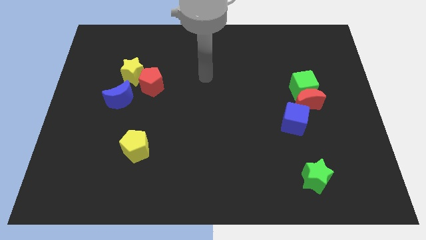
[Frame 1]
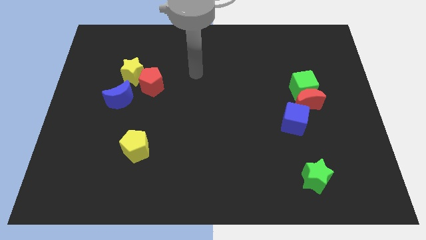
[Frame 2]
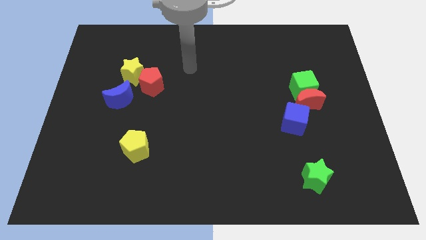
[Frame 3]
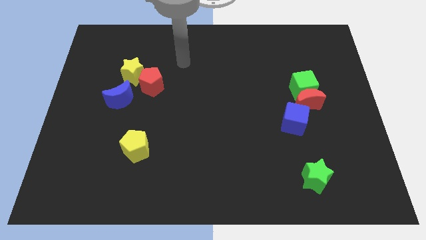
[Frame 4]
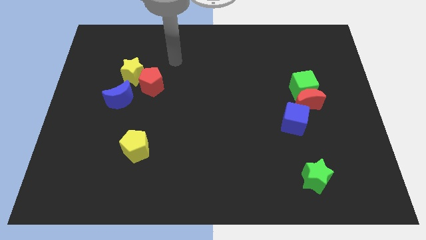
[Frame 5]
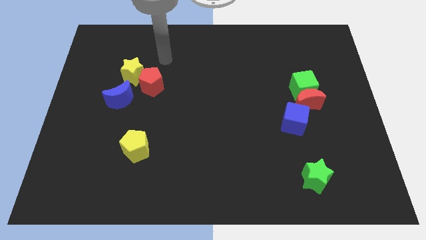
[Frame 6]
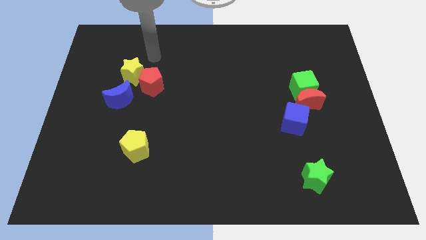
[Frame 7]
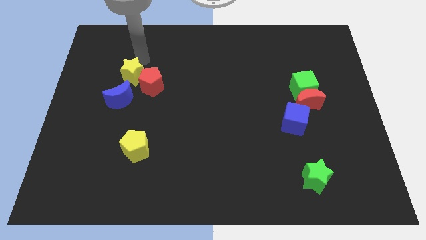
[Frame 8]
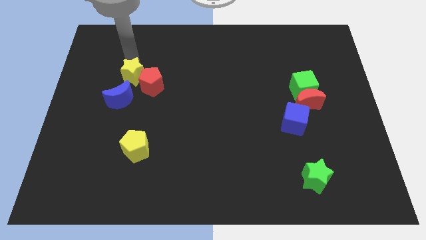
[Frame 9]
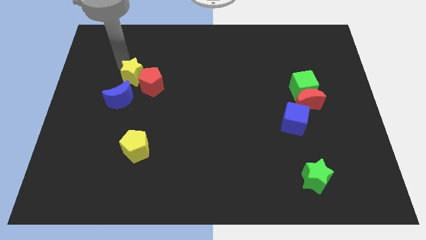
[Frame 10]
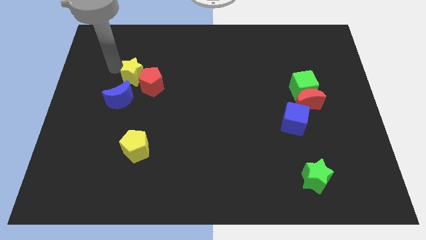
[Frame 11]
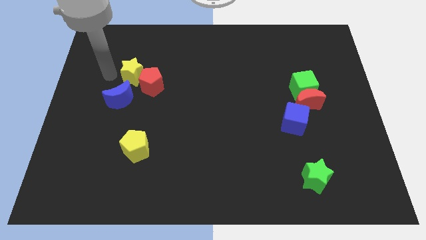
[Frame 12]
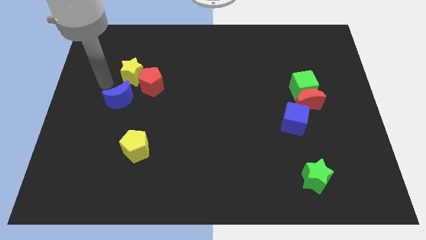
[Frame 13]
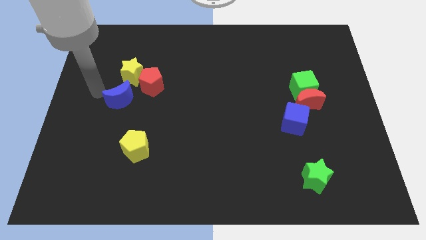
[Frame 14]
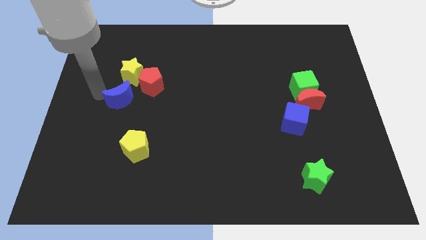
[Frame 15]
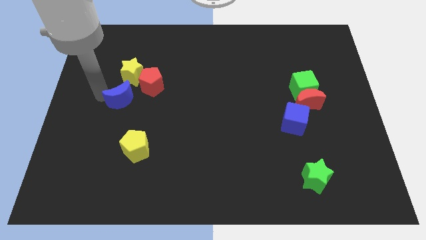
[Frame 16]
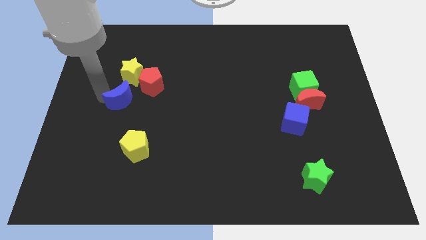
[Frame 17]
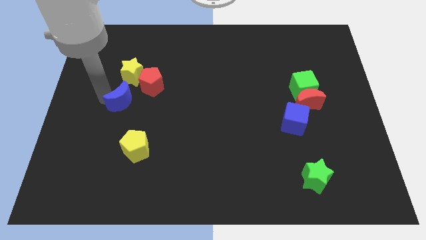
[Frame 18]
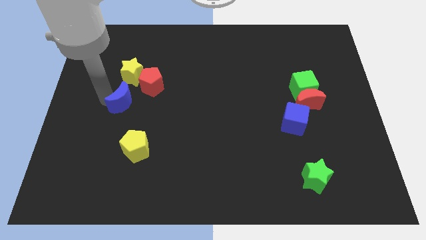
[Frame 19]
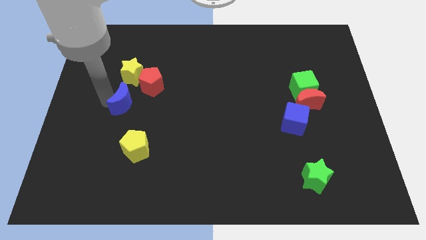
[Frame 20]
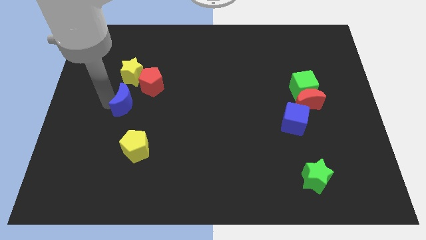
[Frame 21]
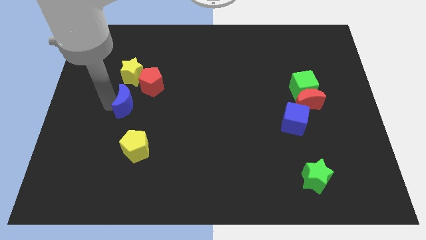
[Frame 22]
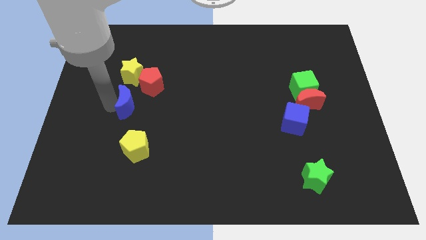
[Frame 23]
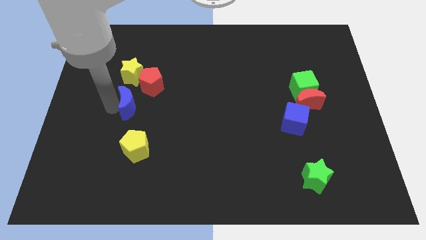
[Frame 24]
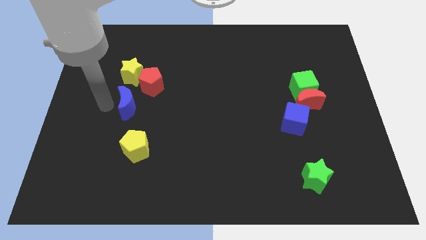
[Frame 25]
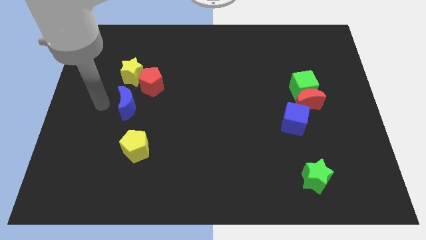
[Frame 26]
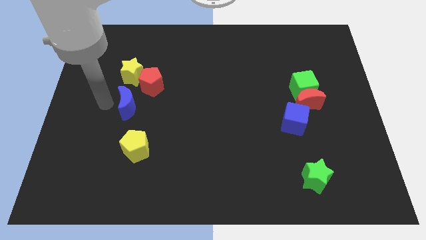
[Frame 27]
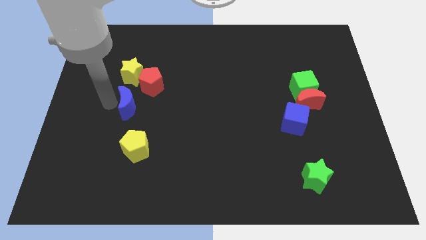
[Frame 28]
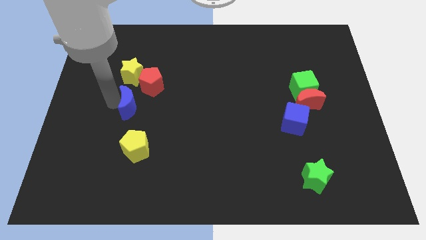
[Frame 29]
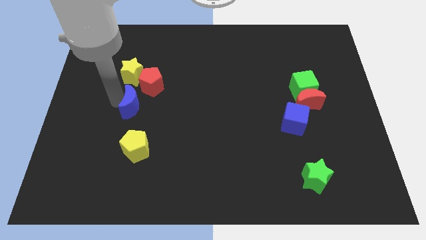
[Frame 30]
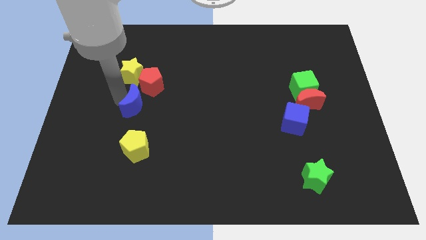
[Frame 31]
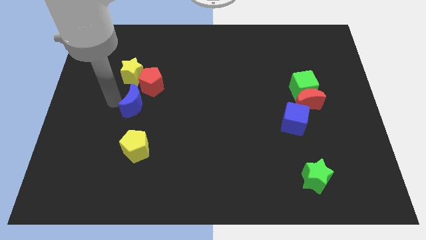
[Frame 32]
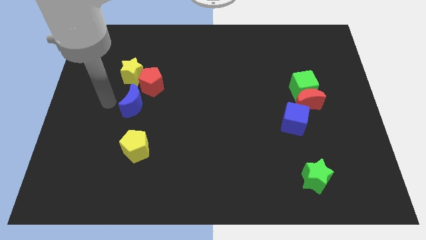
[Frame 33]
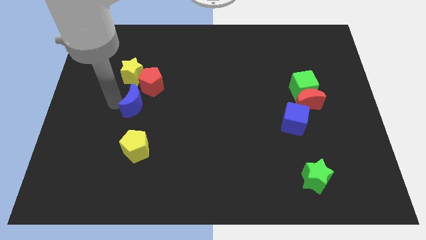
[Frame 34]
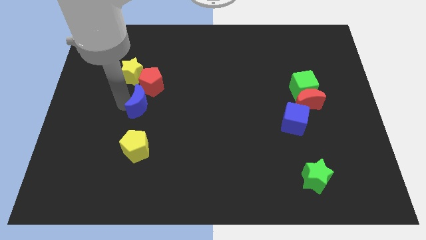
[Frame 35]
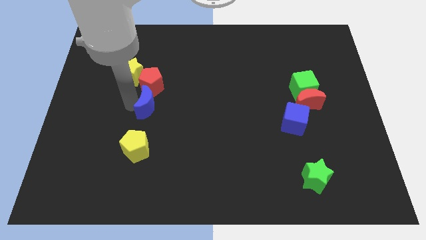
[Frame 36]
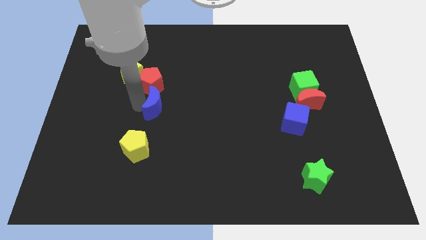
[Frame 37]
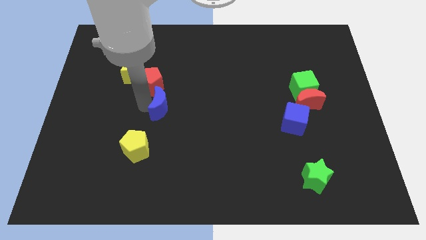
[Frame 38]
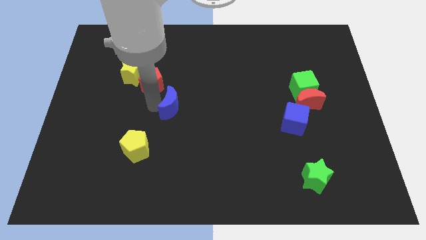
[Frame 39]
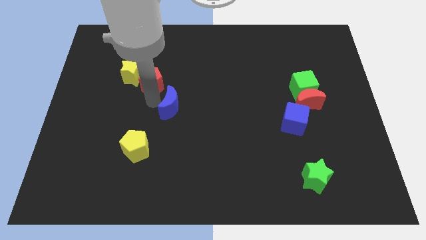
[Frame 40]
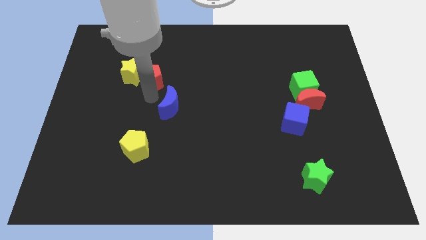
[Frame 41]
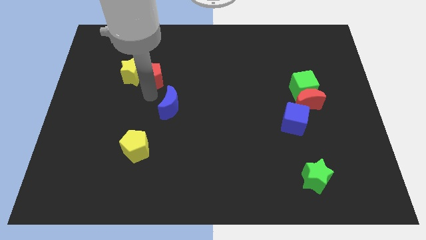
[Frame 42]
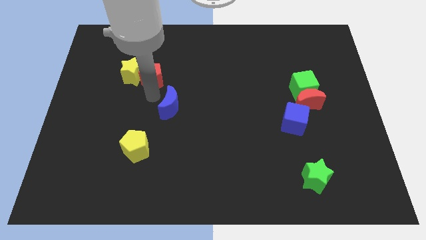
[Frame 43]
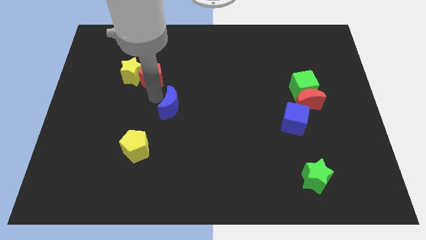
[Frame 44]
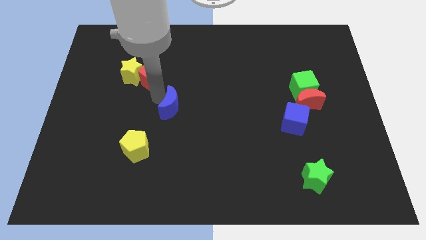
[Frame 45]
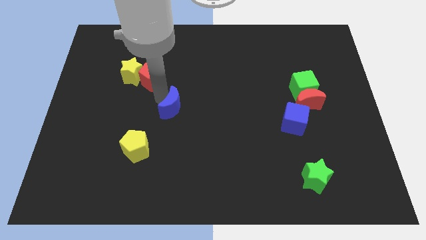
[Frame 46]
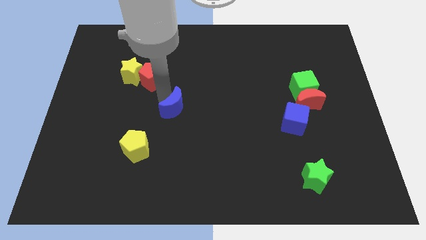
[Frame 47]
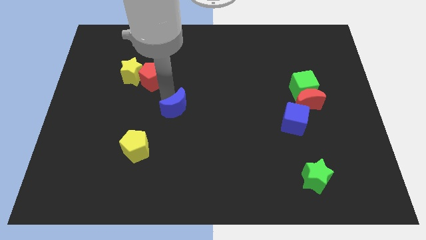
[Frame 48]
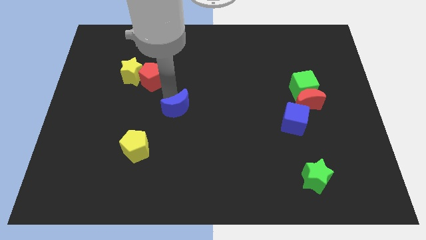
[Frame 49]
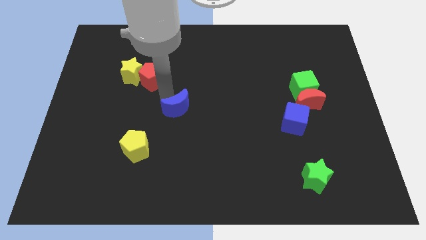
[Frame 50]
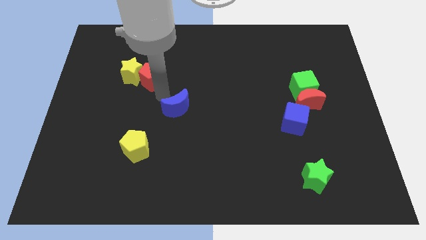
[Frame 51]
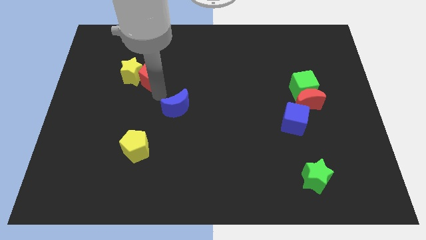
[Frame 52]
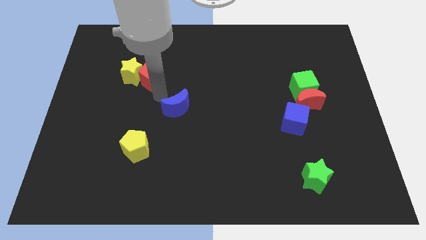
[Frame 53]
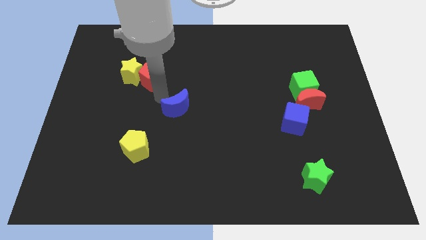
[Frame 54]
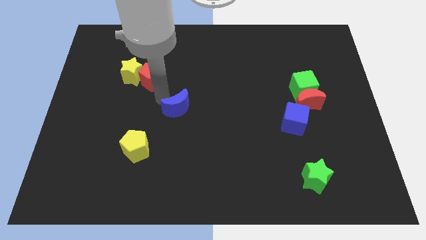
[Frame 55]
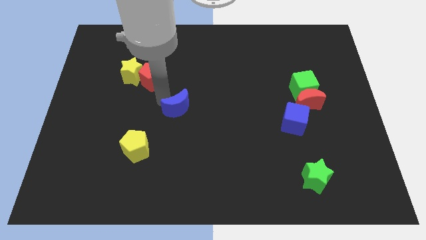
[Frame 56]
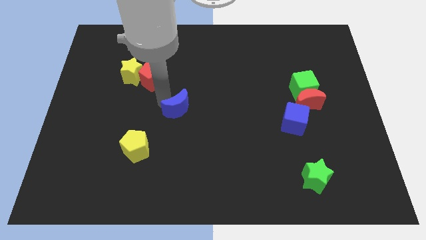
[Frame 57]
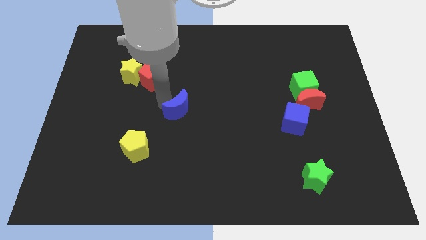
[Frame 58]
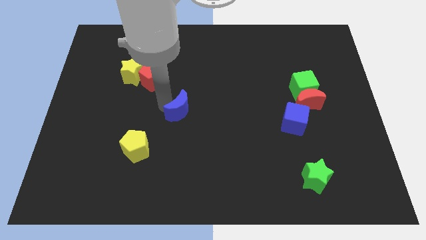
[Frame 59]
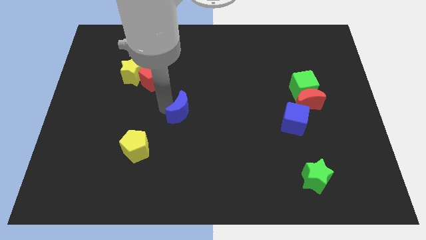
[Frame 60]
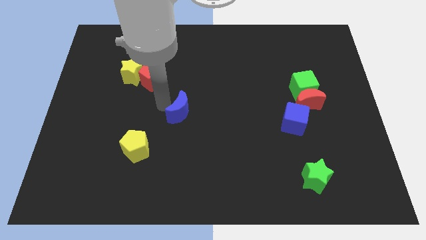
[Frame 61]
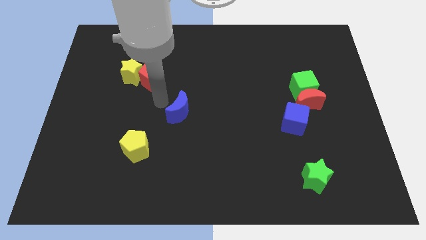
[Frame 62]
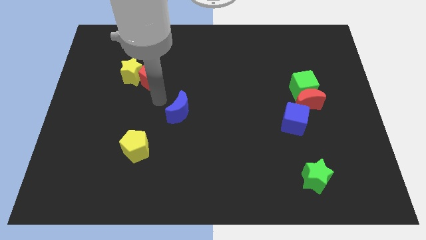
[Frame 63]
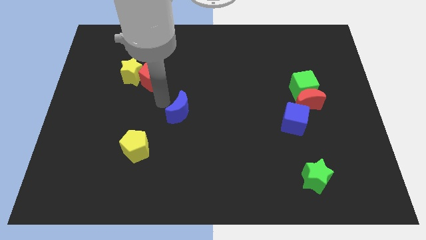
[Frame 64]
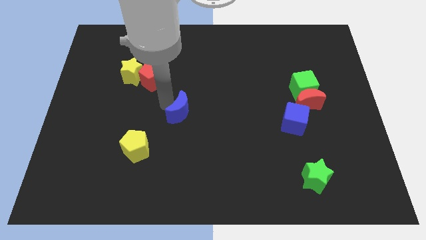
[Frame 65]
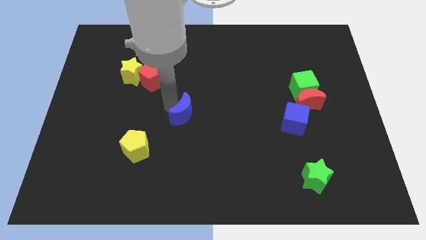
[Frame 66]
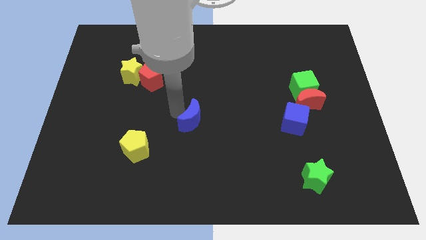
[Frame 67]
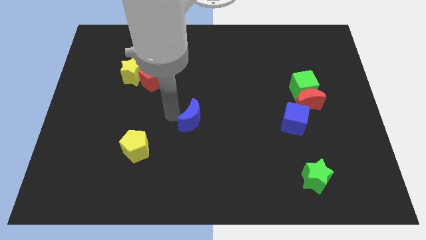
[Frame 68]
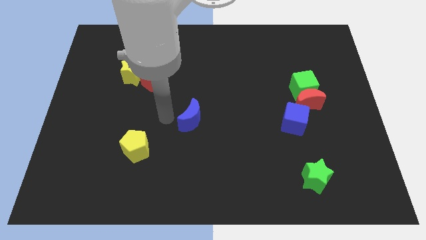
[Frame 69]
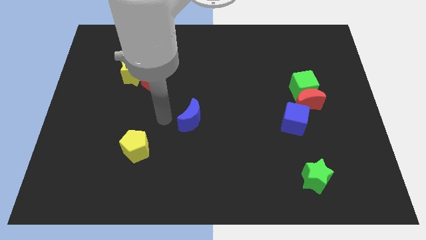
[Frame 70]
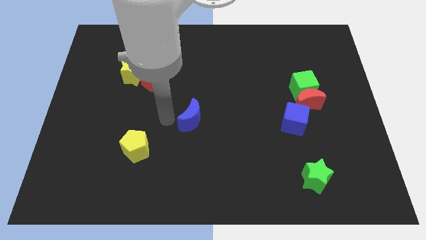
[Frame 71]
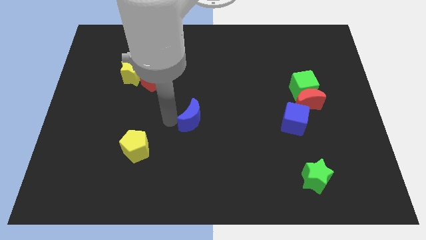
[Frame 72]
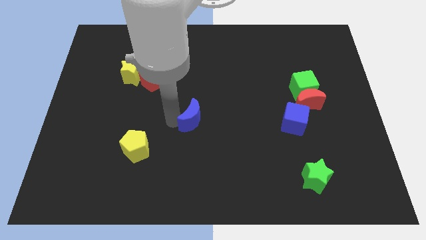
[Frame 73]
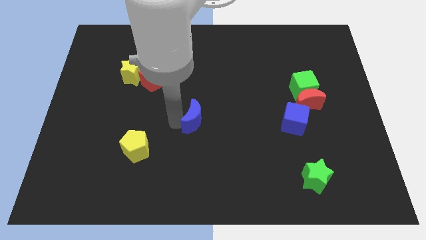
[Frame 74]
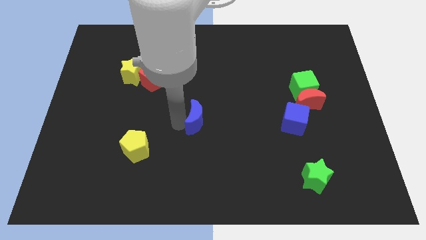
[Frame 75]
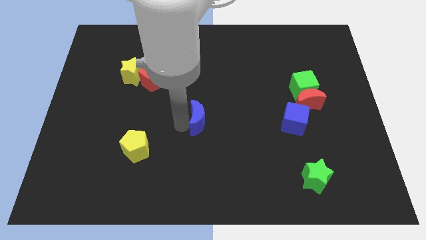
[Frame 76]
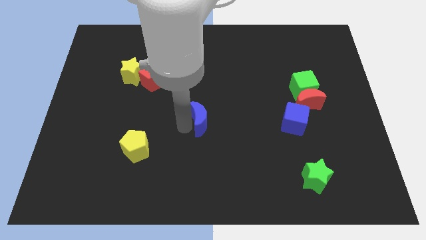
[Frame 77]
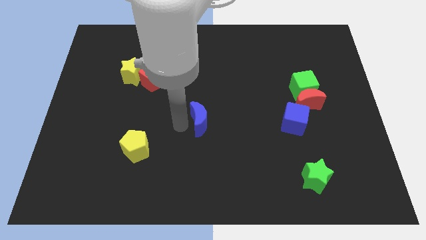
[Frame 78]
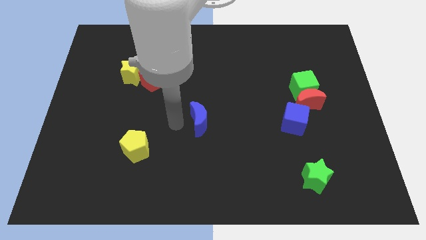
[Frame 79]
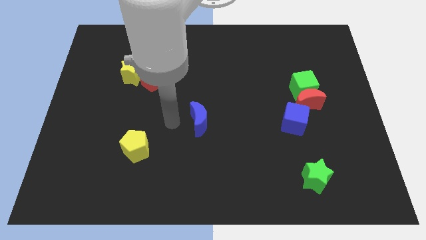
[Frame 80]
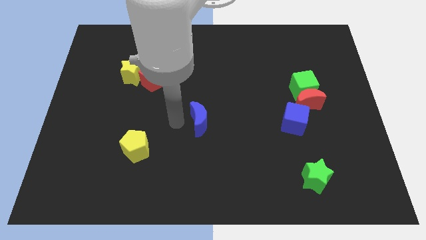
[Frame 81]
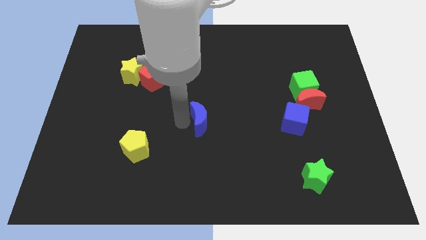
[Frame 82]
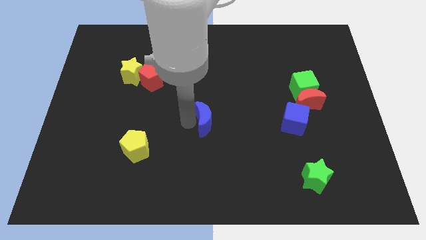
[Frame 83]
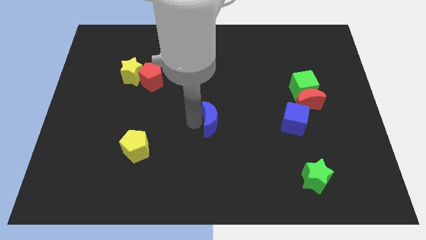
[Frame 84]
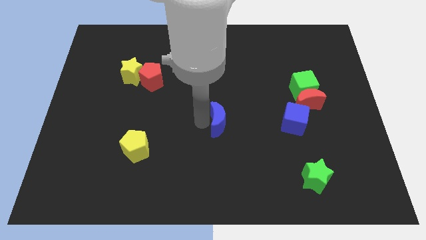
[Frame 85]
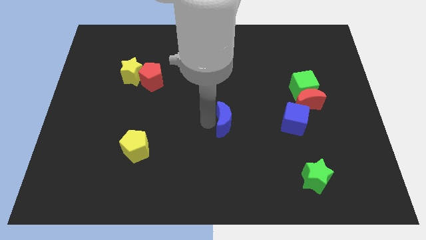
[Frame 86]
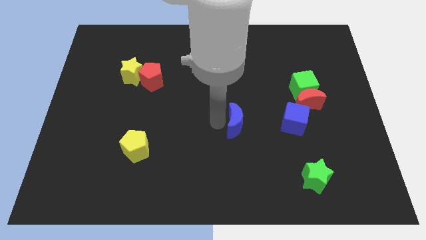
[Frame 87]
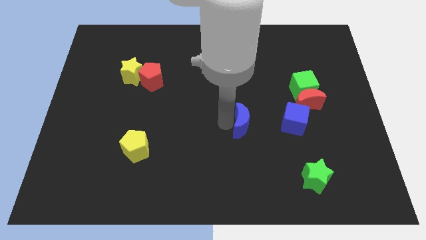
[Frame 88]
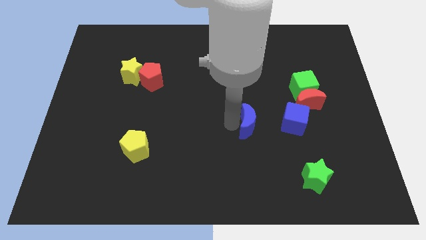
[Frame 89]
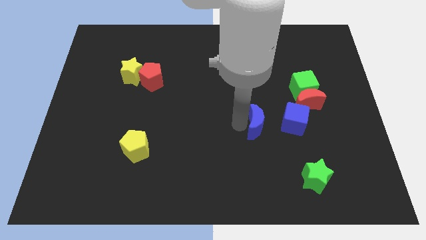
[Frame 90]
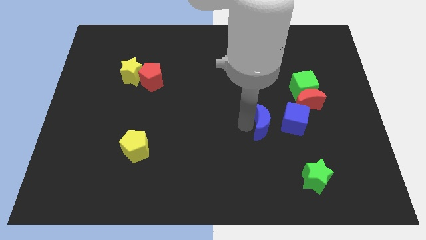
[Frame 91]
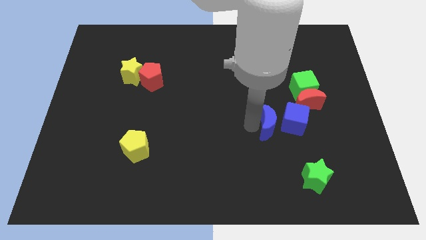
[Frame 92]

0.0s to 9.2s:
push the blue moon towards the blue cube
